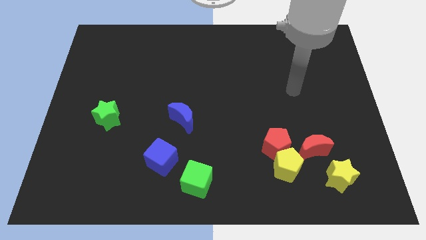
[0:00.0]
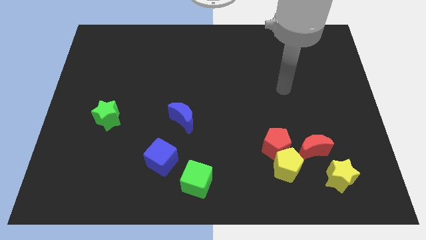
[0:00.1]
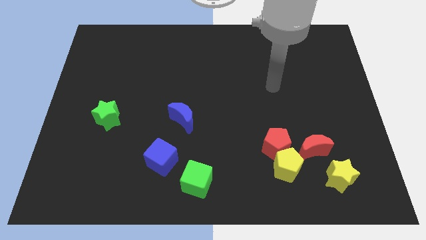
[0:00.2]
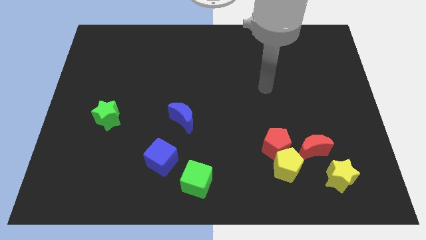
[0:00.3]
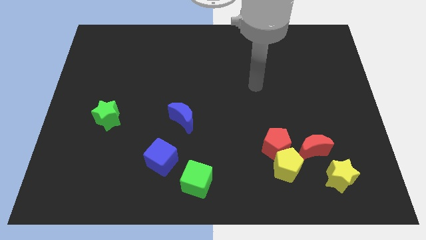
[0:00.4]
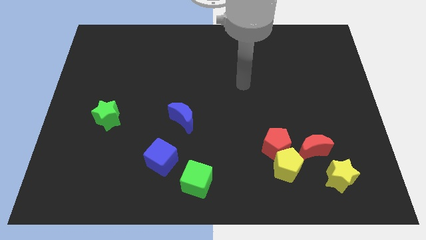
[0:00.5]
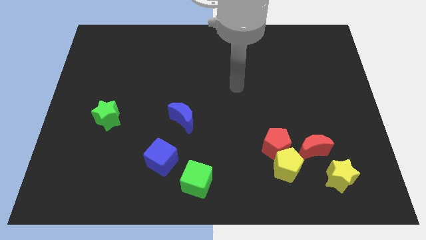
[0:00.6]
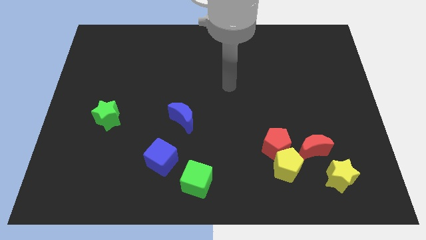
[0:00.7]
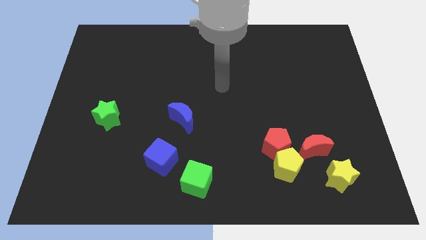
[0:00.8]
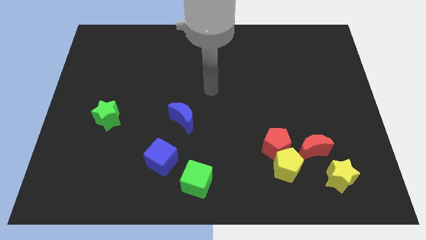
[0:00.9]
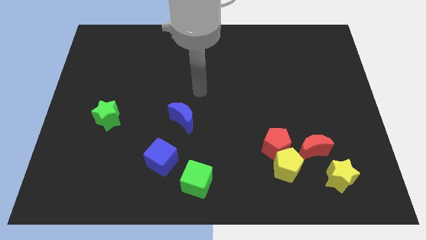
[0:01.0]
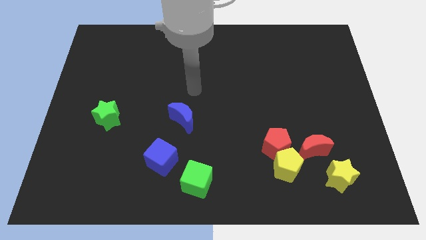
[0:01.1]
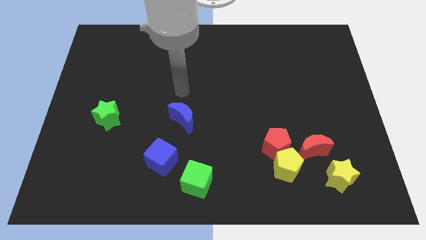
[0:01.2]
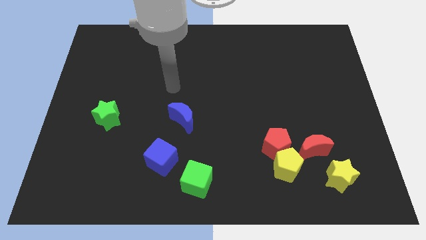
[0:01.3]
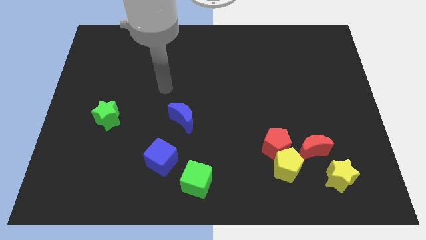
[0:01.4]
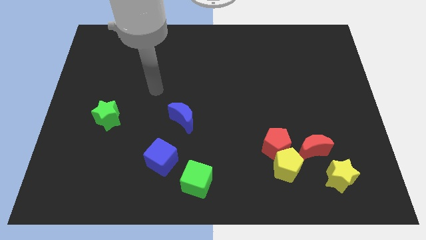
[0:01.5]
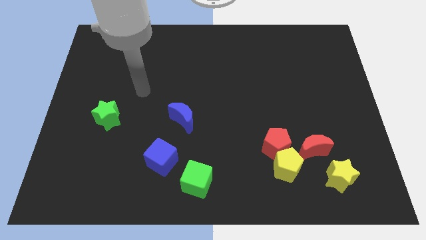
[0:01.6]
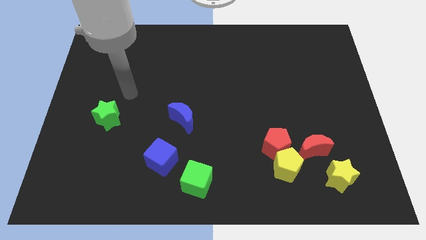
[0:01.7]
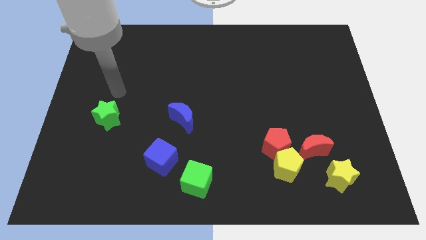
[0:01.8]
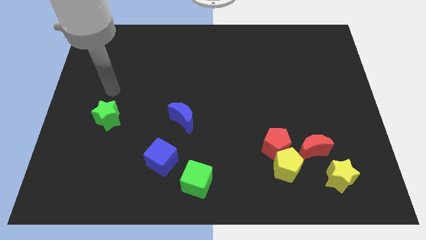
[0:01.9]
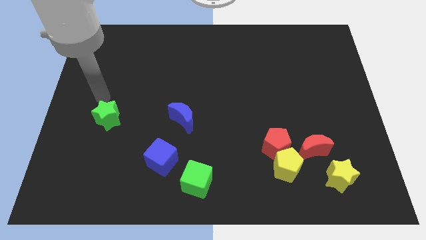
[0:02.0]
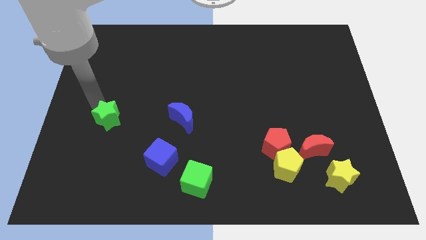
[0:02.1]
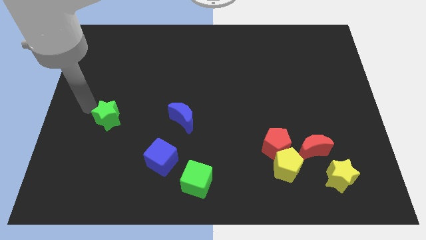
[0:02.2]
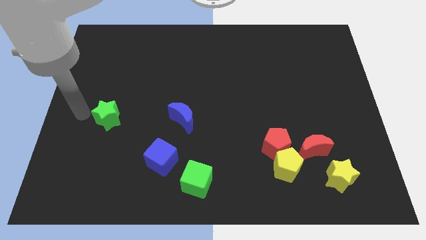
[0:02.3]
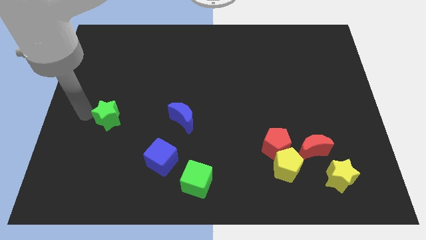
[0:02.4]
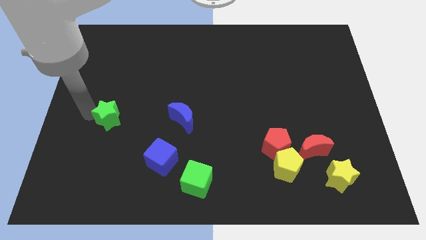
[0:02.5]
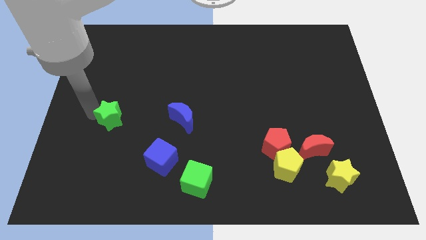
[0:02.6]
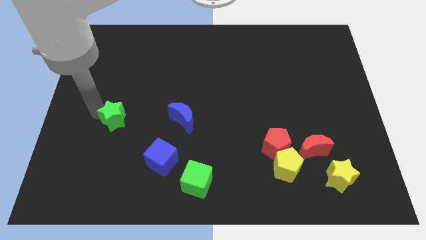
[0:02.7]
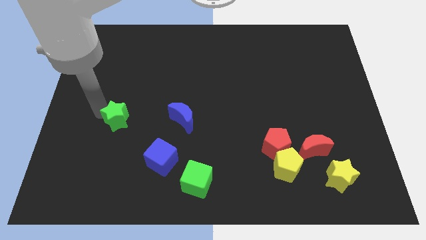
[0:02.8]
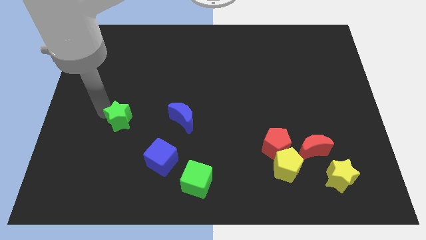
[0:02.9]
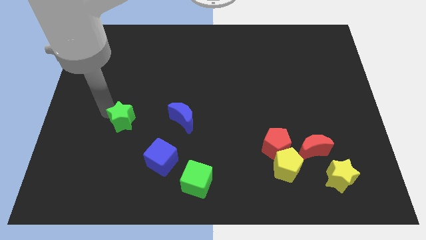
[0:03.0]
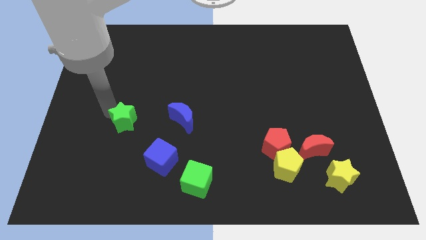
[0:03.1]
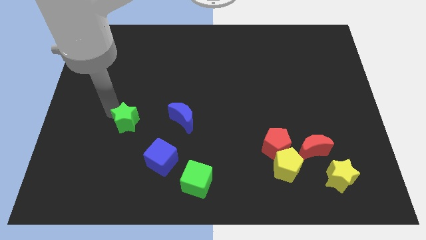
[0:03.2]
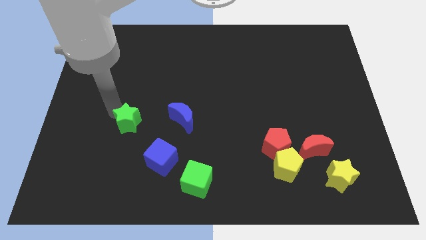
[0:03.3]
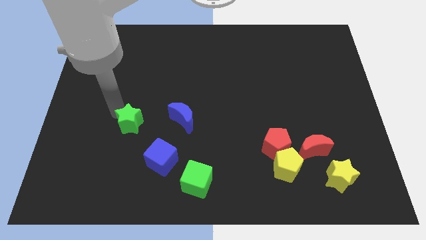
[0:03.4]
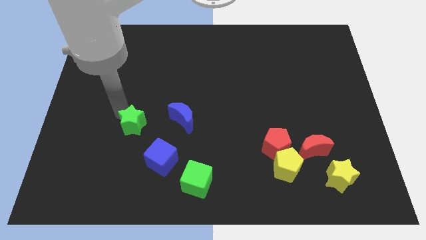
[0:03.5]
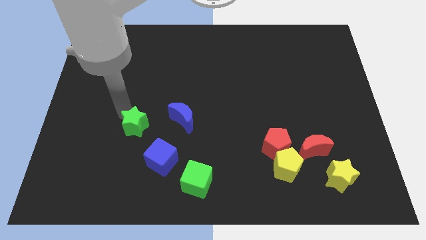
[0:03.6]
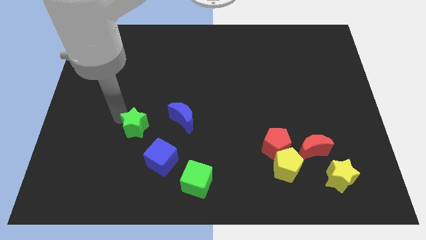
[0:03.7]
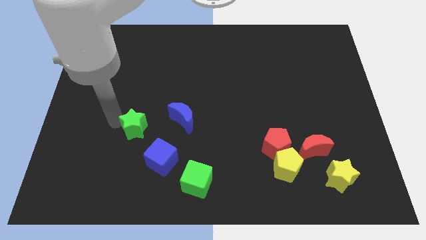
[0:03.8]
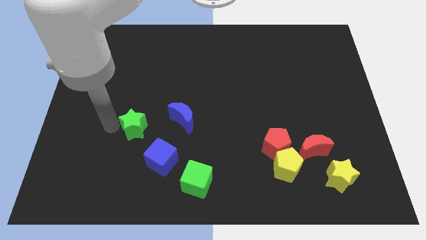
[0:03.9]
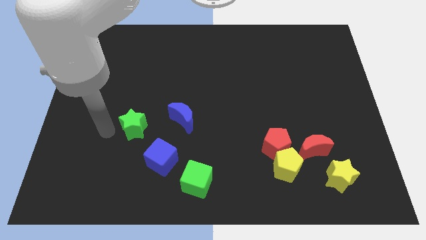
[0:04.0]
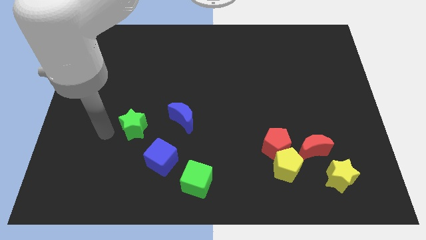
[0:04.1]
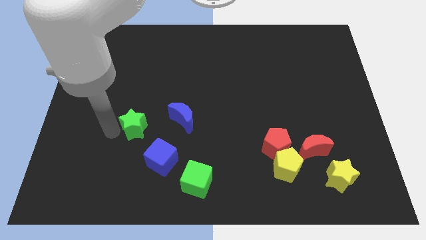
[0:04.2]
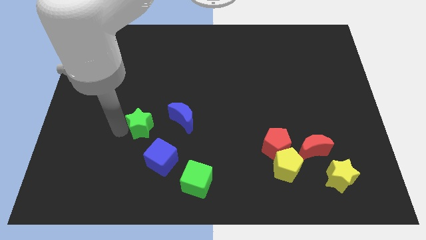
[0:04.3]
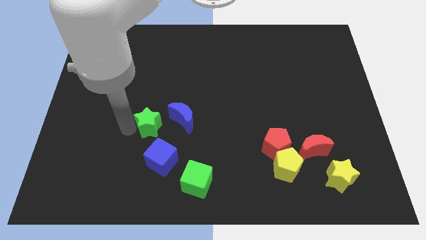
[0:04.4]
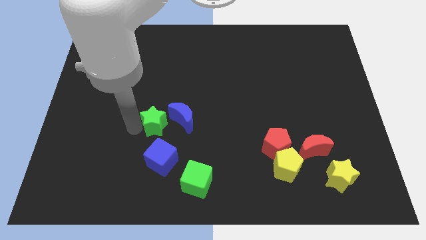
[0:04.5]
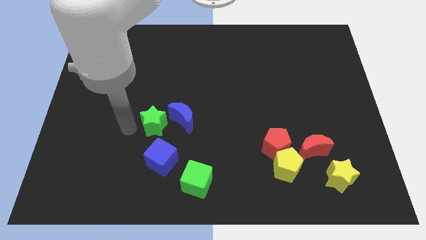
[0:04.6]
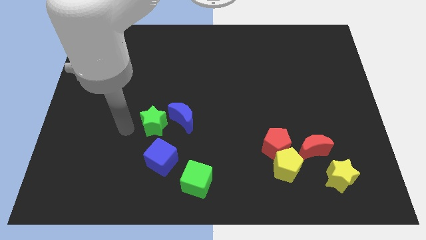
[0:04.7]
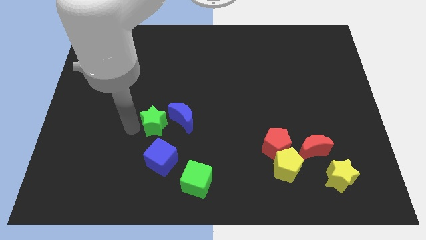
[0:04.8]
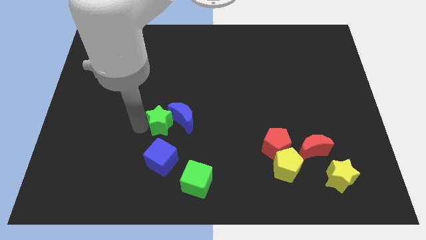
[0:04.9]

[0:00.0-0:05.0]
slide the green star to the blue moon

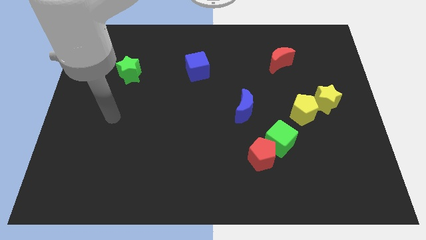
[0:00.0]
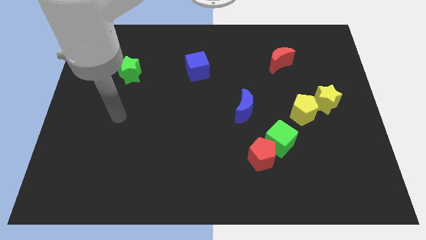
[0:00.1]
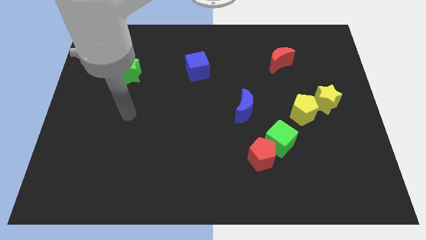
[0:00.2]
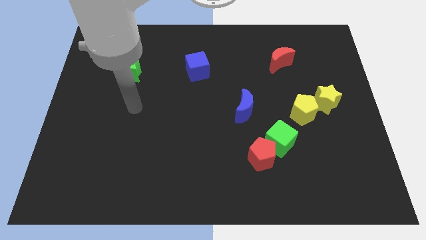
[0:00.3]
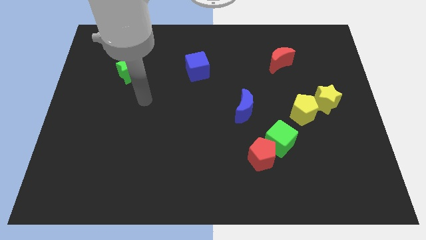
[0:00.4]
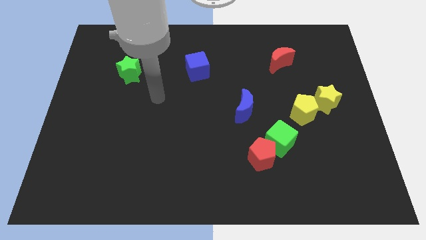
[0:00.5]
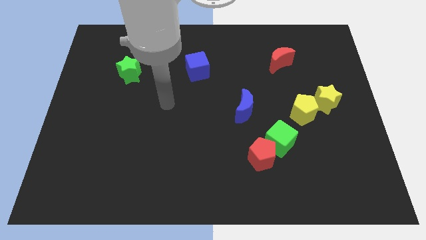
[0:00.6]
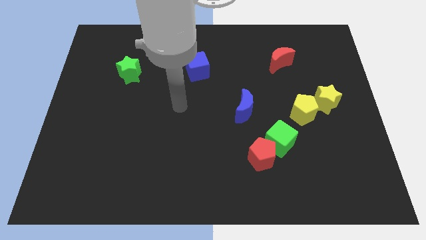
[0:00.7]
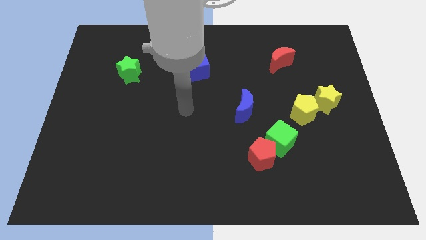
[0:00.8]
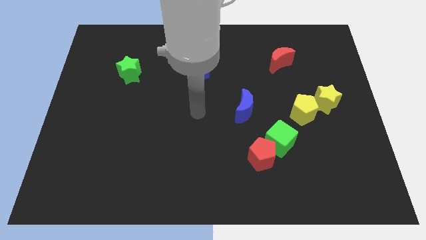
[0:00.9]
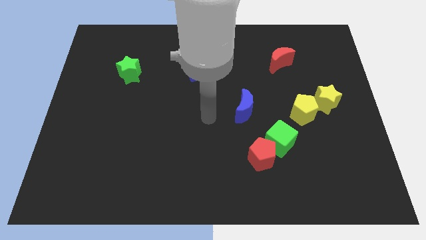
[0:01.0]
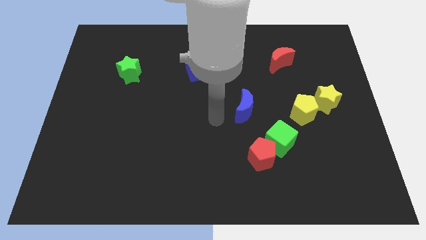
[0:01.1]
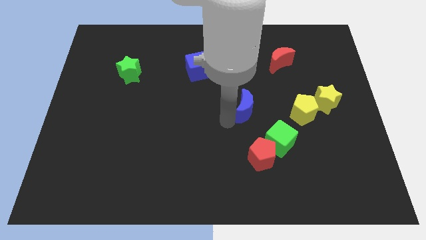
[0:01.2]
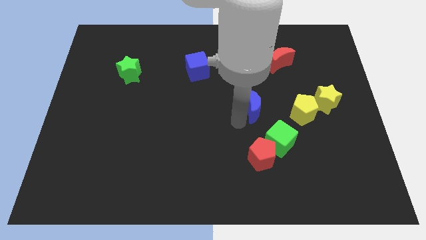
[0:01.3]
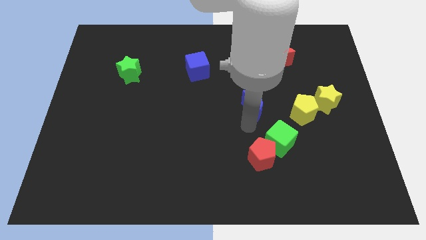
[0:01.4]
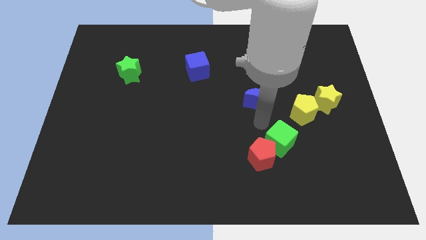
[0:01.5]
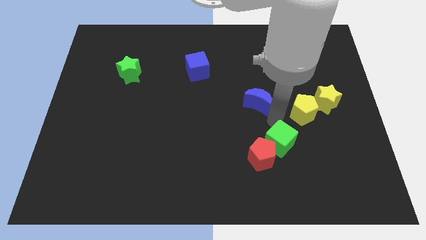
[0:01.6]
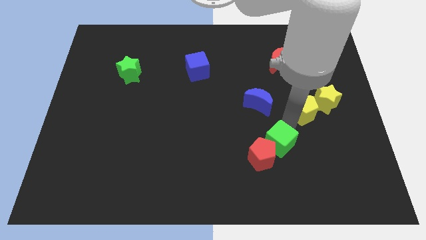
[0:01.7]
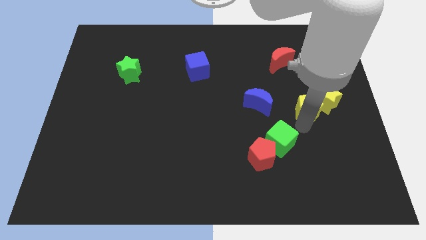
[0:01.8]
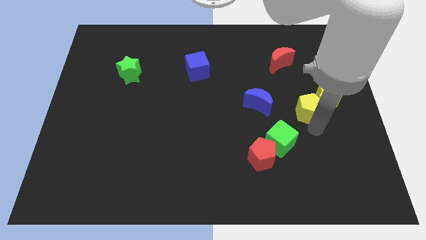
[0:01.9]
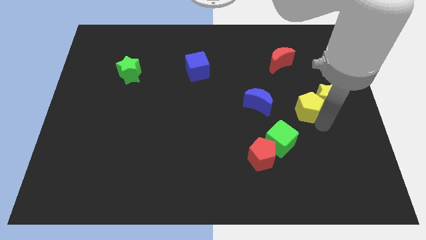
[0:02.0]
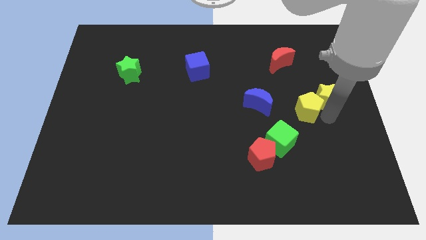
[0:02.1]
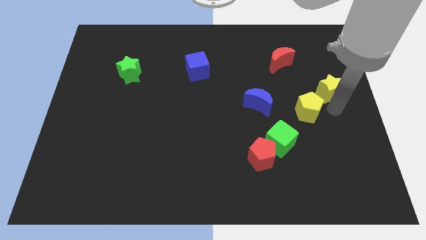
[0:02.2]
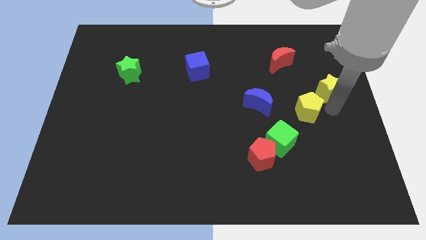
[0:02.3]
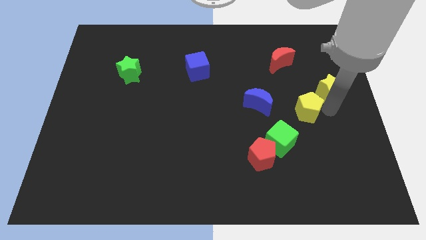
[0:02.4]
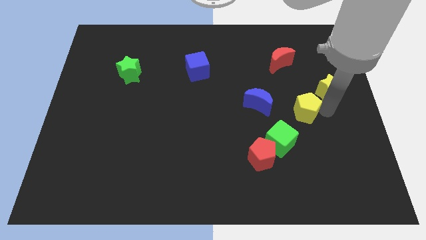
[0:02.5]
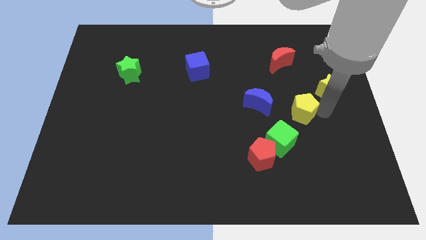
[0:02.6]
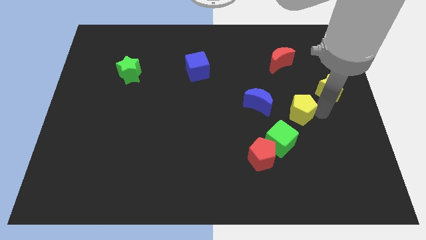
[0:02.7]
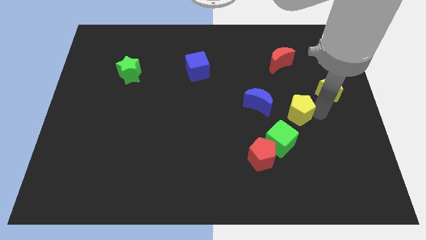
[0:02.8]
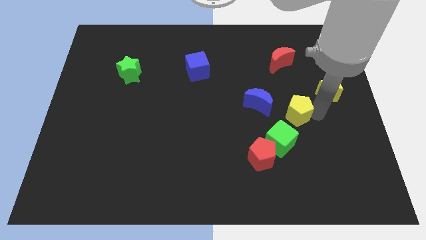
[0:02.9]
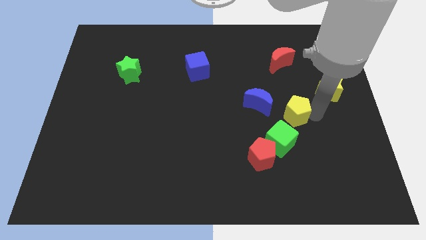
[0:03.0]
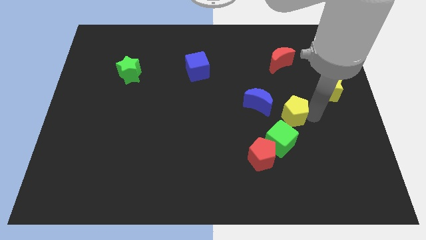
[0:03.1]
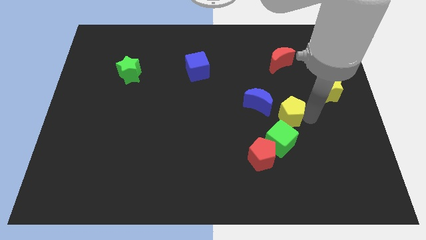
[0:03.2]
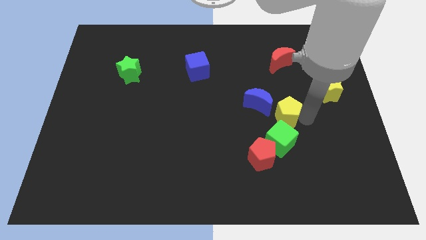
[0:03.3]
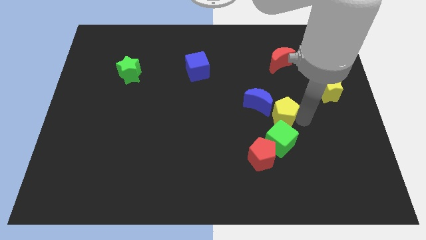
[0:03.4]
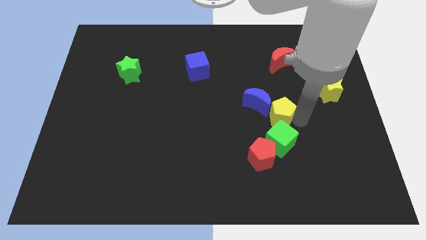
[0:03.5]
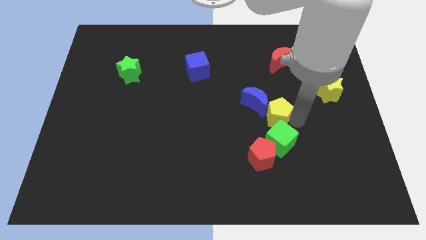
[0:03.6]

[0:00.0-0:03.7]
move the yellow pentagon to the blue moon
